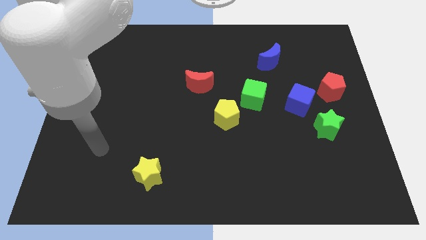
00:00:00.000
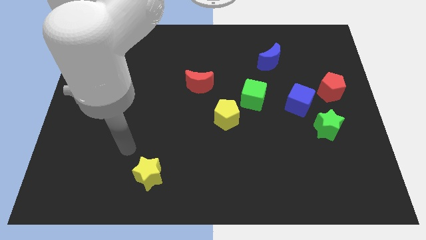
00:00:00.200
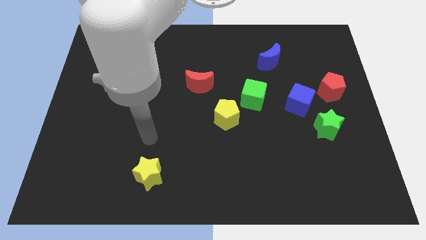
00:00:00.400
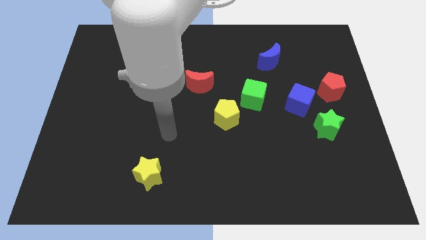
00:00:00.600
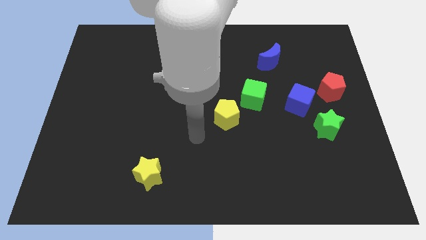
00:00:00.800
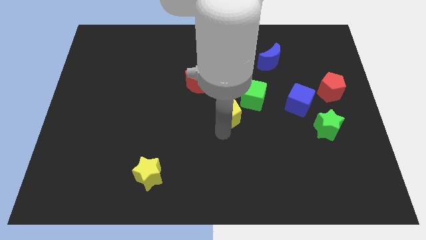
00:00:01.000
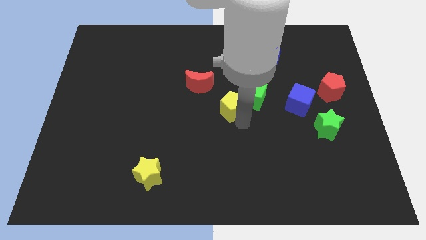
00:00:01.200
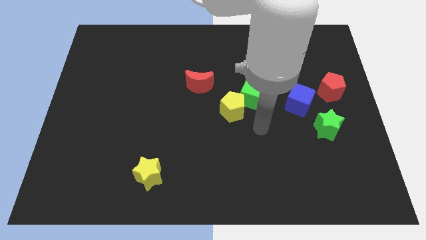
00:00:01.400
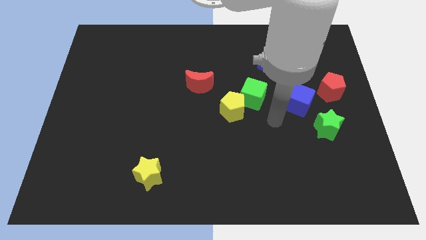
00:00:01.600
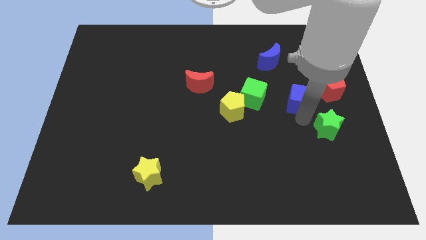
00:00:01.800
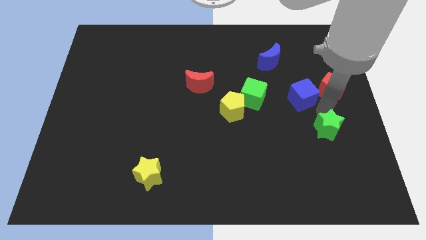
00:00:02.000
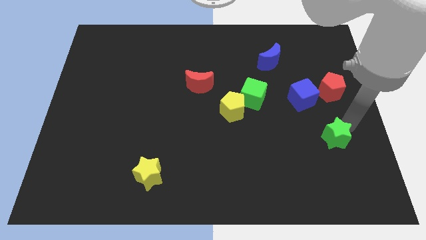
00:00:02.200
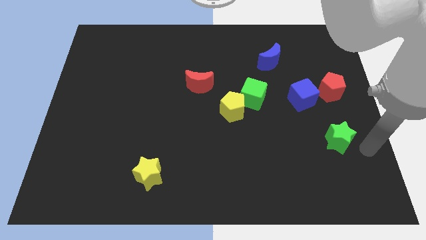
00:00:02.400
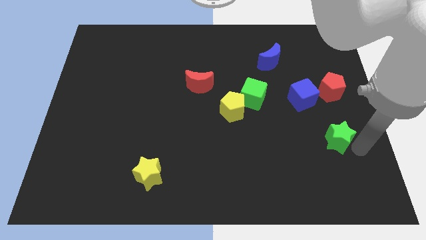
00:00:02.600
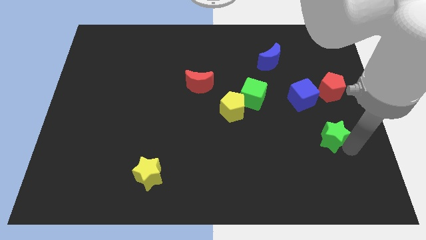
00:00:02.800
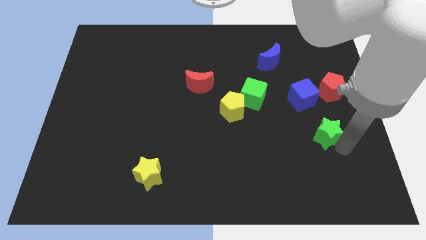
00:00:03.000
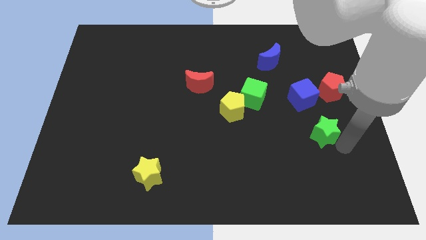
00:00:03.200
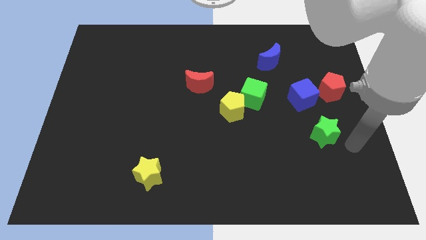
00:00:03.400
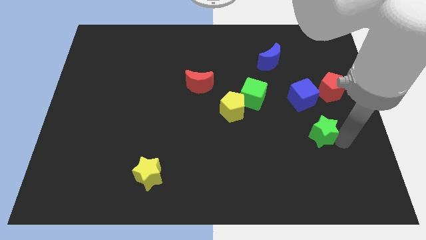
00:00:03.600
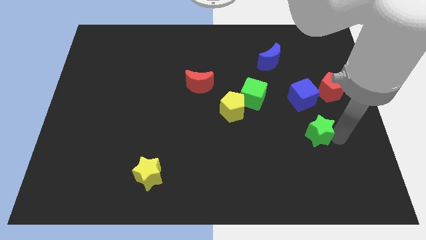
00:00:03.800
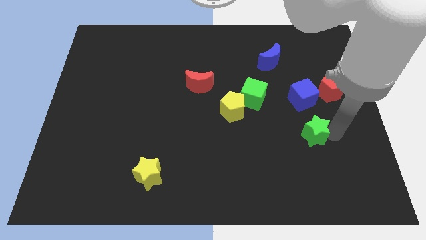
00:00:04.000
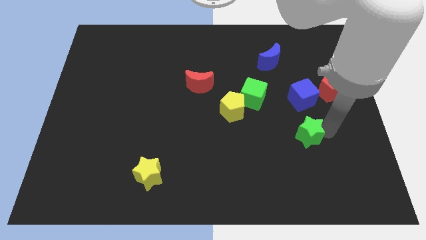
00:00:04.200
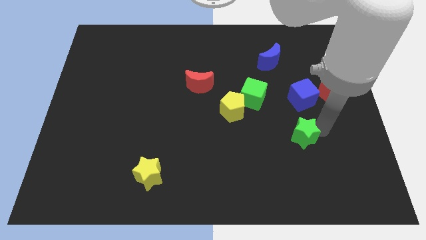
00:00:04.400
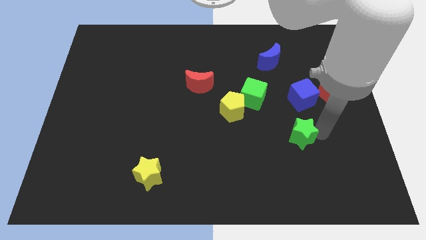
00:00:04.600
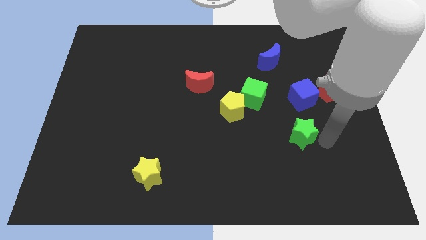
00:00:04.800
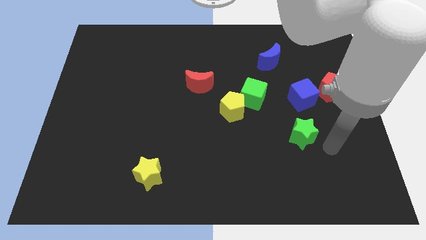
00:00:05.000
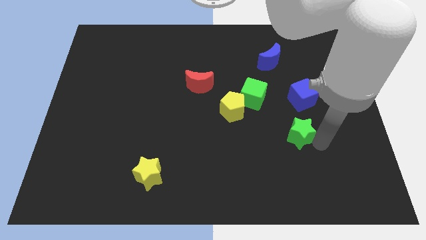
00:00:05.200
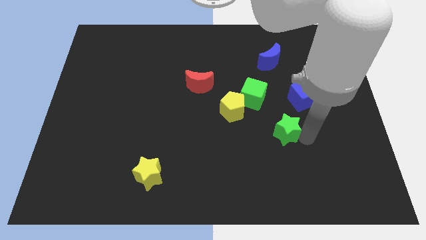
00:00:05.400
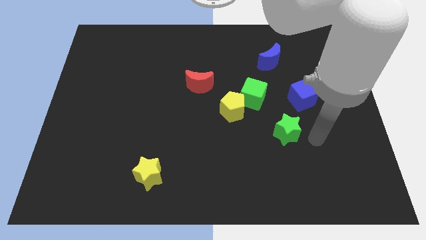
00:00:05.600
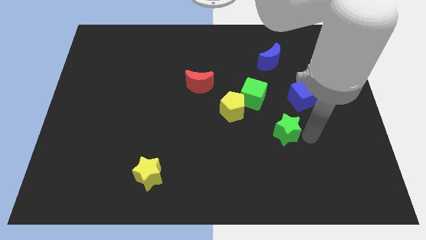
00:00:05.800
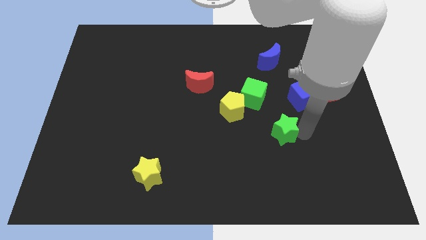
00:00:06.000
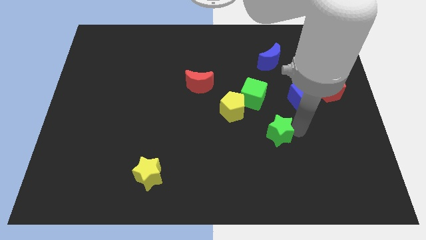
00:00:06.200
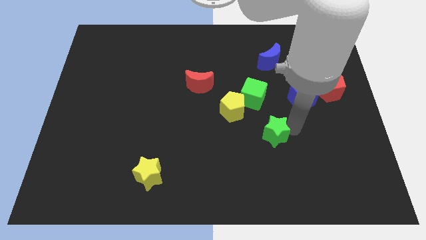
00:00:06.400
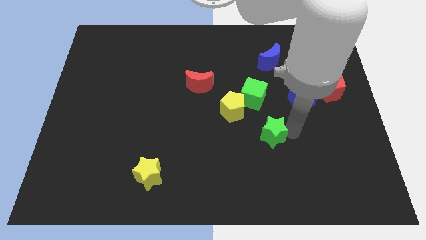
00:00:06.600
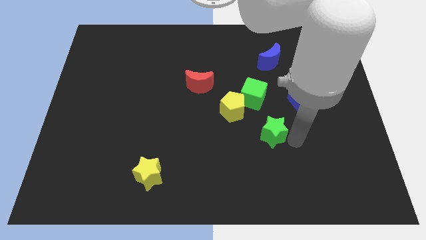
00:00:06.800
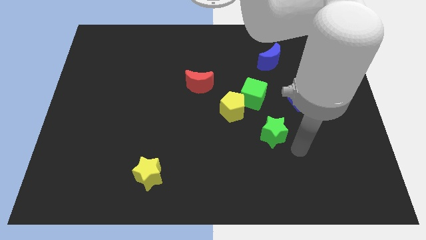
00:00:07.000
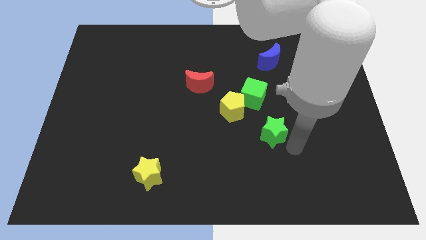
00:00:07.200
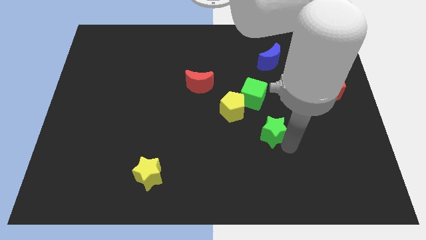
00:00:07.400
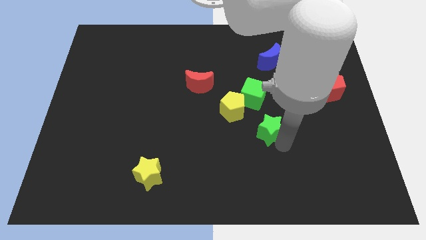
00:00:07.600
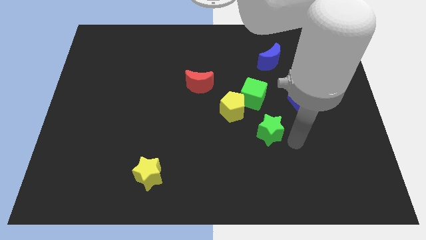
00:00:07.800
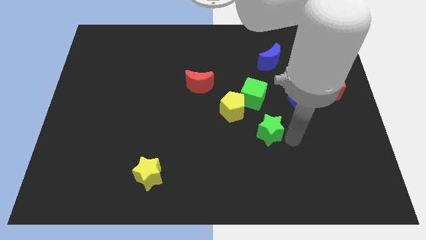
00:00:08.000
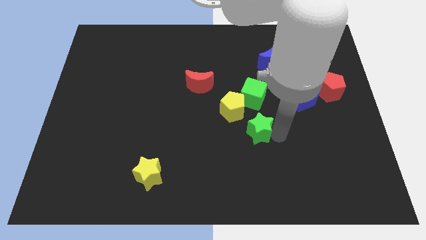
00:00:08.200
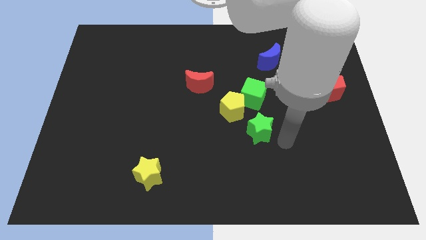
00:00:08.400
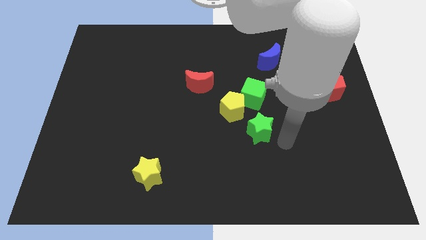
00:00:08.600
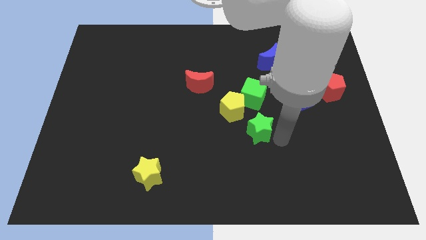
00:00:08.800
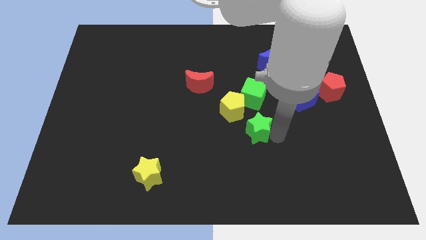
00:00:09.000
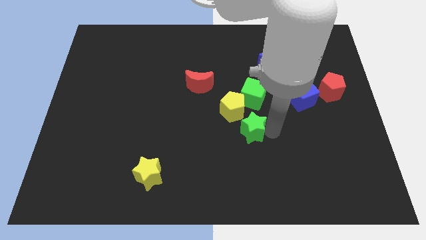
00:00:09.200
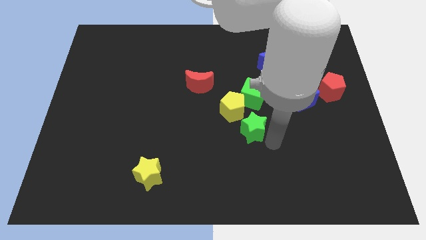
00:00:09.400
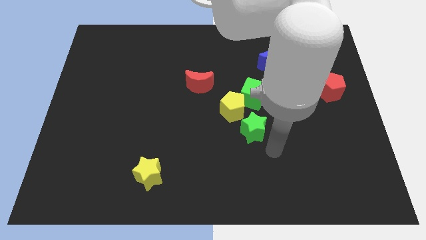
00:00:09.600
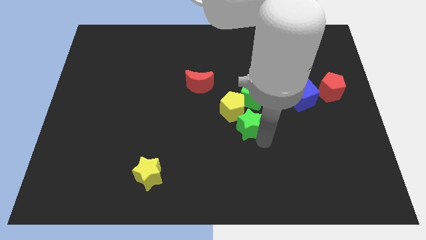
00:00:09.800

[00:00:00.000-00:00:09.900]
slide the green star close to the yellow pentagon

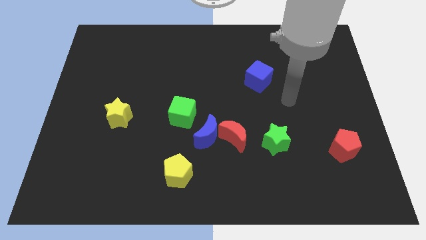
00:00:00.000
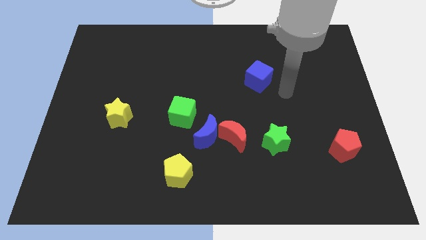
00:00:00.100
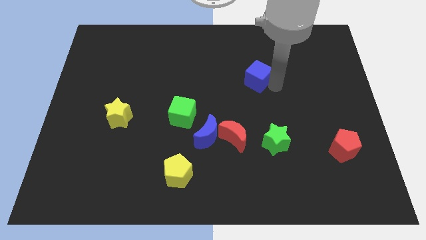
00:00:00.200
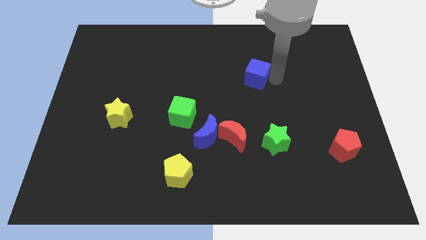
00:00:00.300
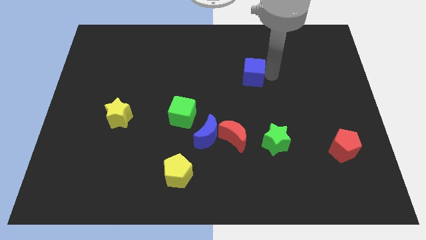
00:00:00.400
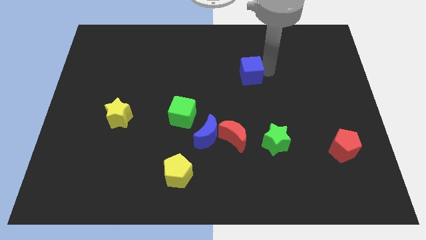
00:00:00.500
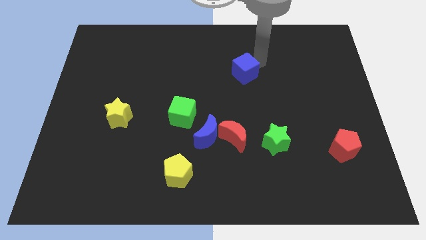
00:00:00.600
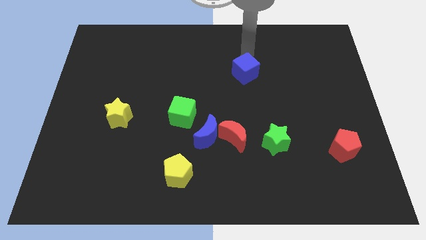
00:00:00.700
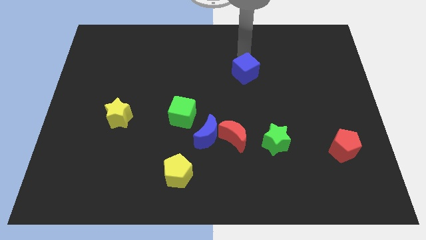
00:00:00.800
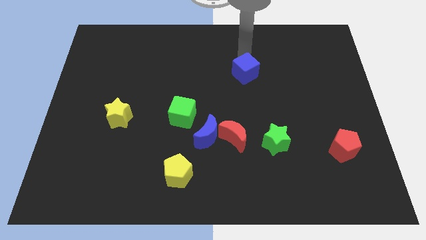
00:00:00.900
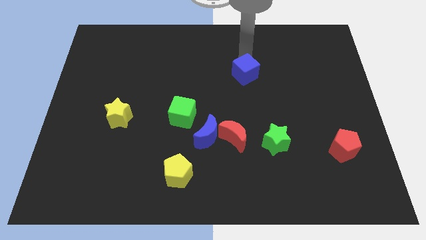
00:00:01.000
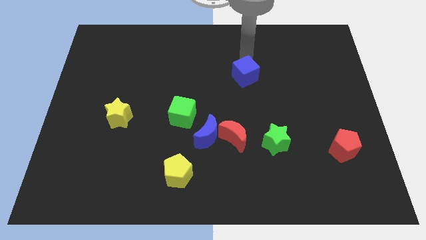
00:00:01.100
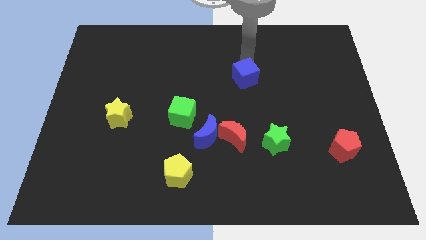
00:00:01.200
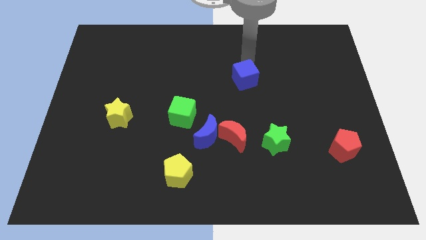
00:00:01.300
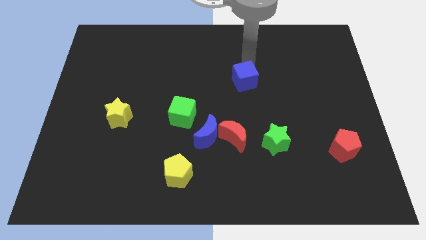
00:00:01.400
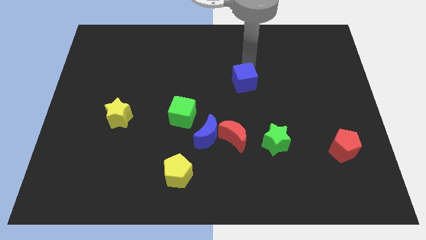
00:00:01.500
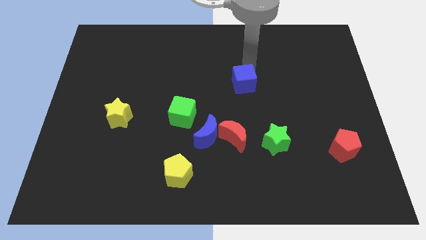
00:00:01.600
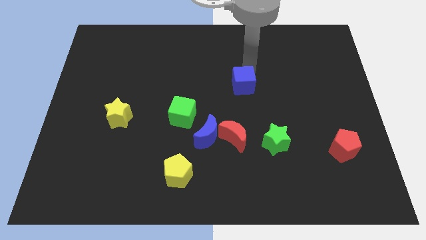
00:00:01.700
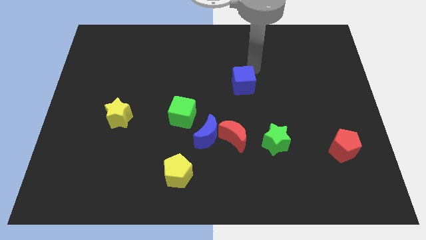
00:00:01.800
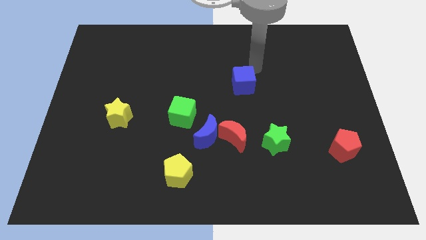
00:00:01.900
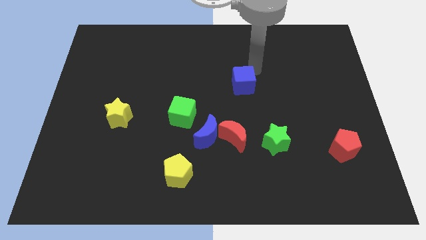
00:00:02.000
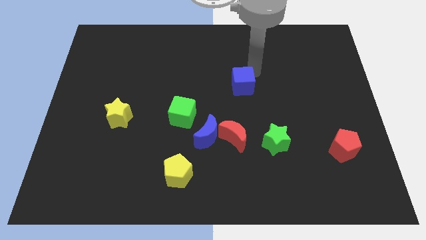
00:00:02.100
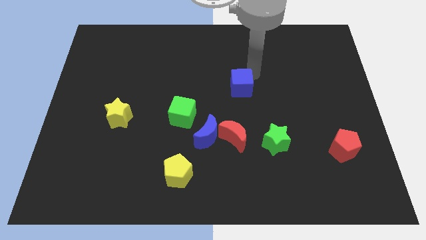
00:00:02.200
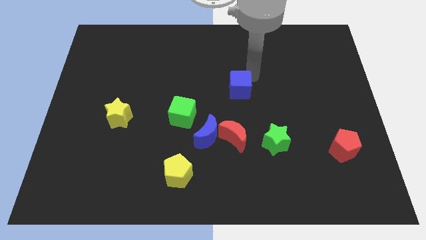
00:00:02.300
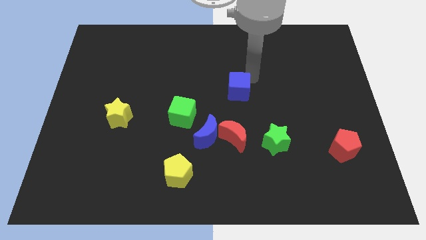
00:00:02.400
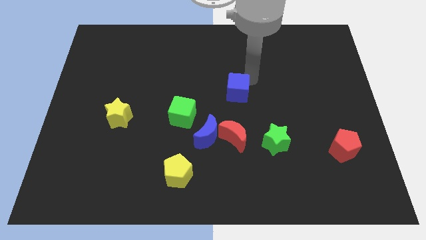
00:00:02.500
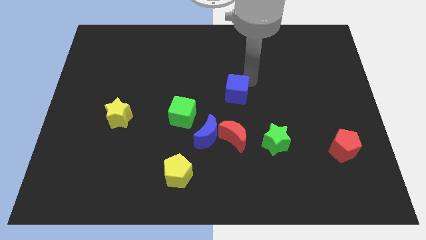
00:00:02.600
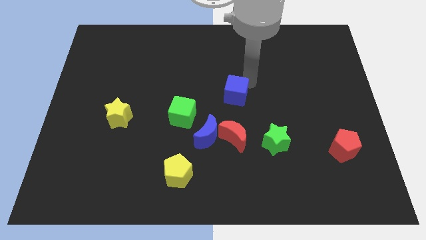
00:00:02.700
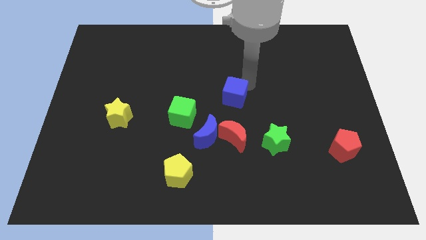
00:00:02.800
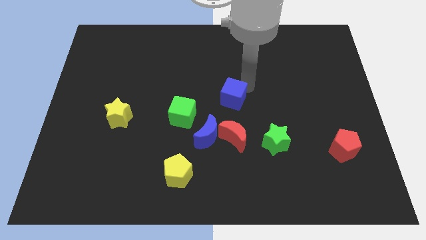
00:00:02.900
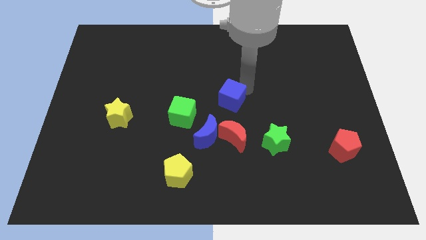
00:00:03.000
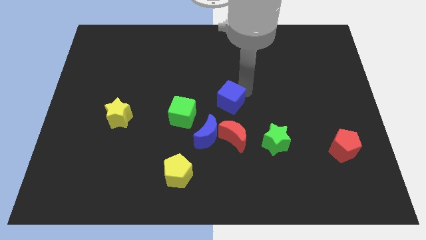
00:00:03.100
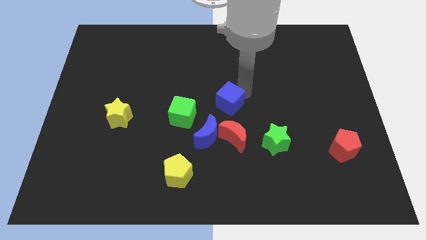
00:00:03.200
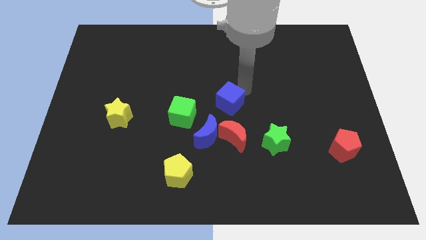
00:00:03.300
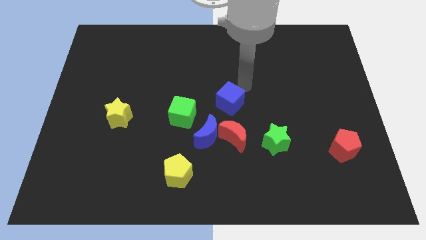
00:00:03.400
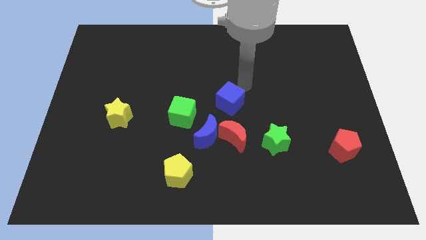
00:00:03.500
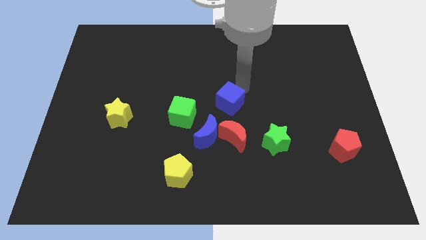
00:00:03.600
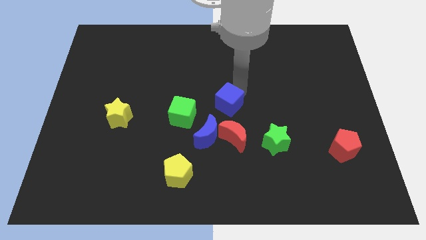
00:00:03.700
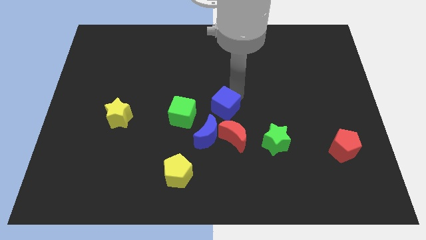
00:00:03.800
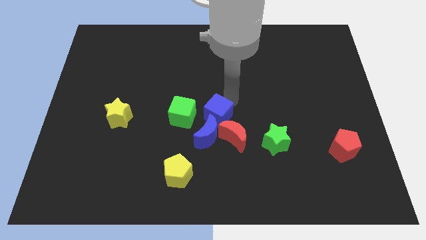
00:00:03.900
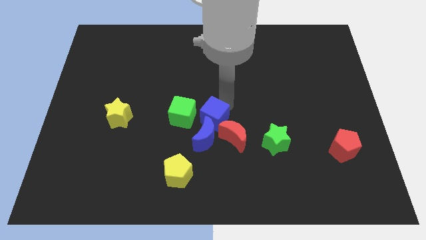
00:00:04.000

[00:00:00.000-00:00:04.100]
move the blue cube towards the blue moon
